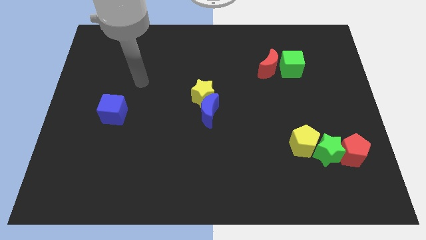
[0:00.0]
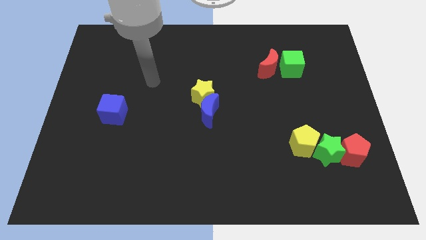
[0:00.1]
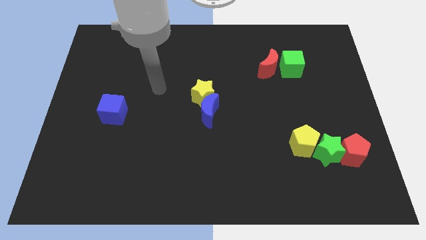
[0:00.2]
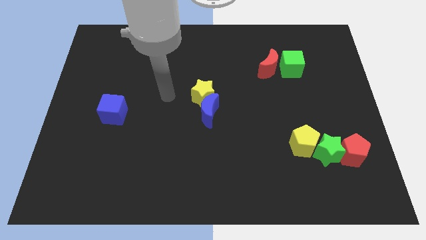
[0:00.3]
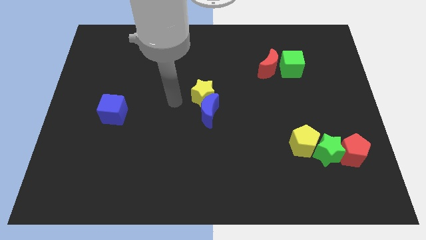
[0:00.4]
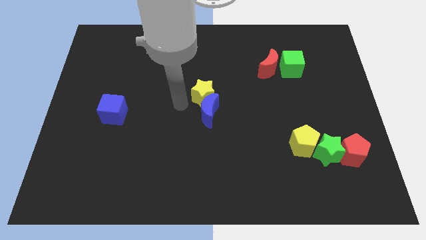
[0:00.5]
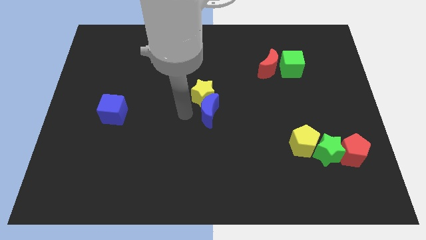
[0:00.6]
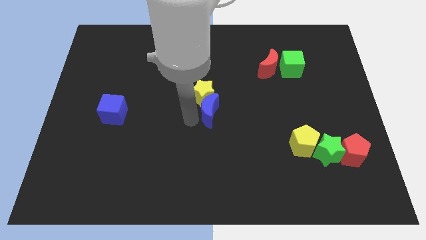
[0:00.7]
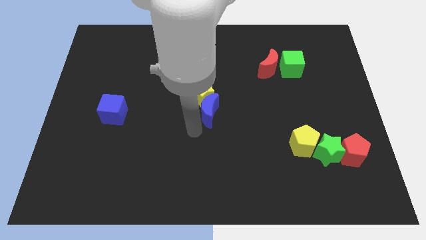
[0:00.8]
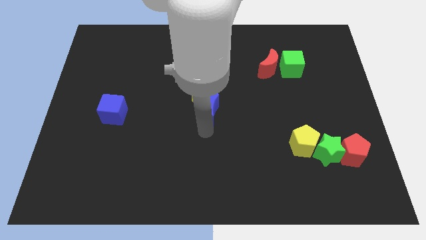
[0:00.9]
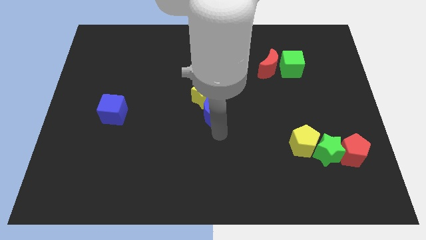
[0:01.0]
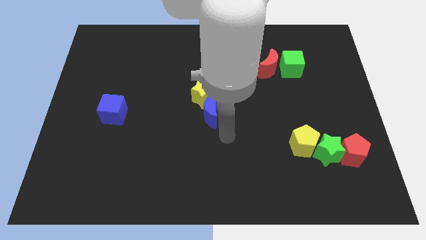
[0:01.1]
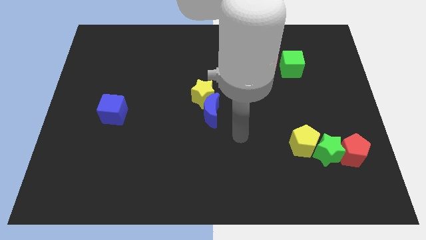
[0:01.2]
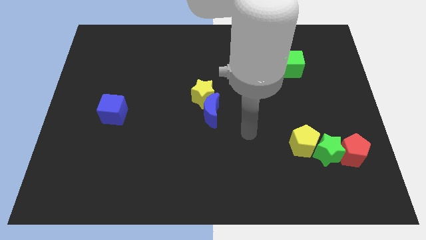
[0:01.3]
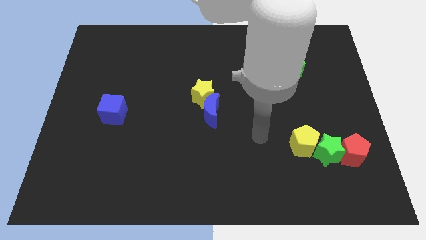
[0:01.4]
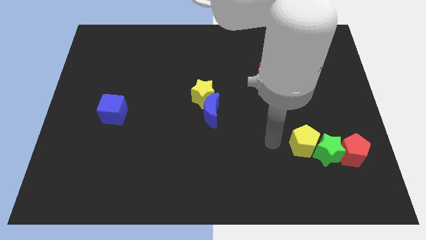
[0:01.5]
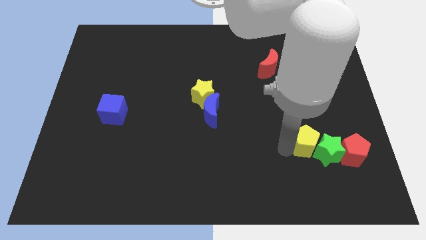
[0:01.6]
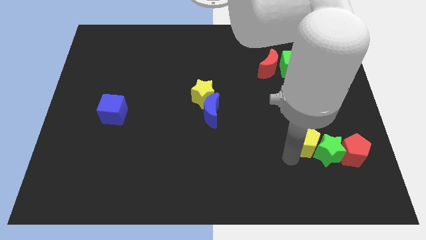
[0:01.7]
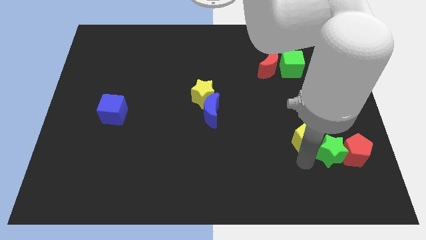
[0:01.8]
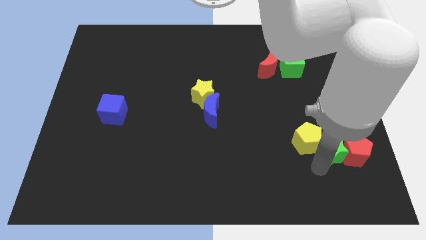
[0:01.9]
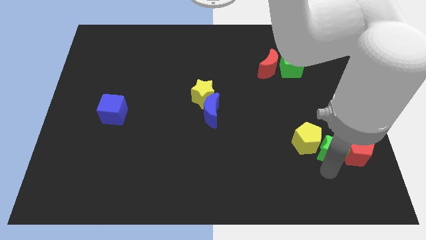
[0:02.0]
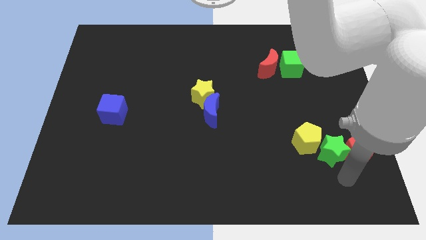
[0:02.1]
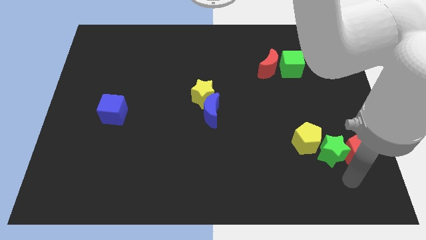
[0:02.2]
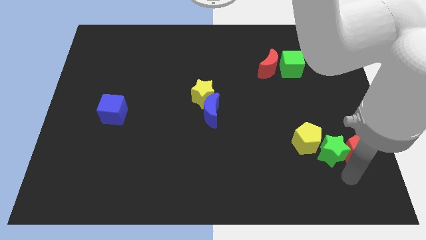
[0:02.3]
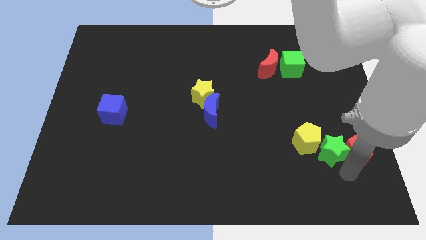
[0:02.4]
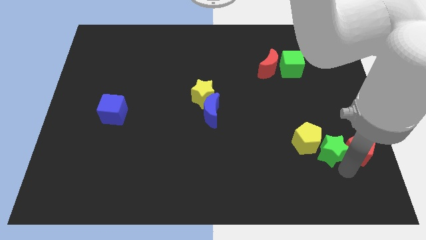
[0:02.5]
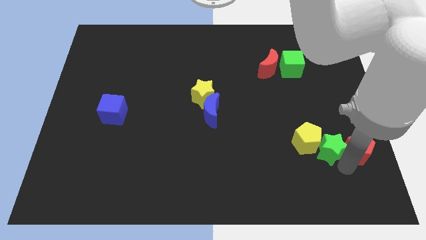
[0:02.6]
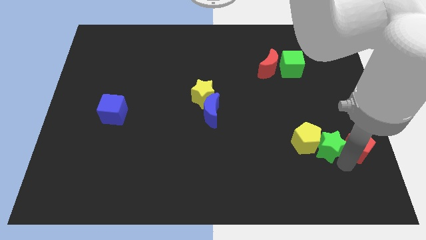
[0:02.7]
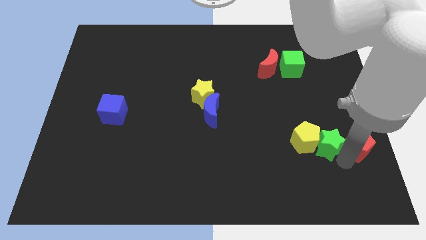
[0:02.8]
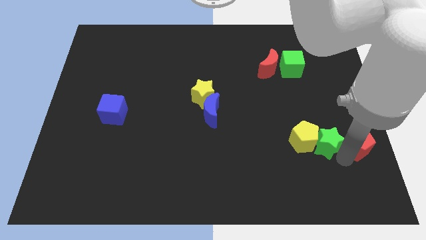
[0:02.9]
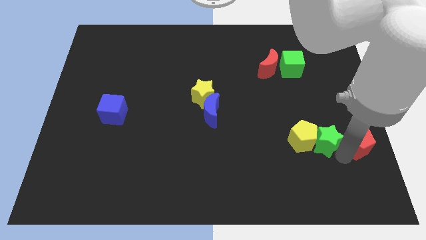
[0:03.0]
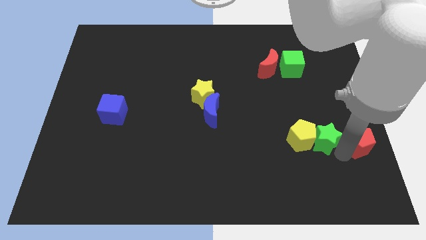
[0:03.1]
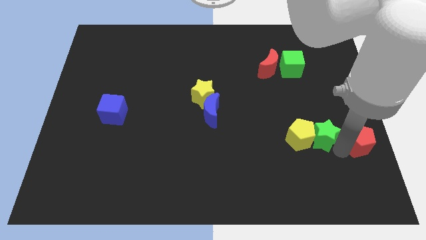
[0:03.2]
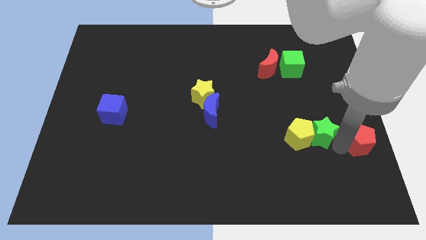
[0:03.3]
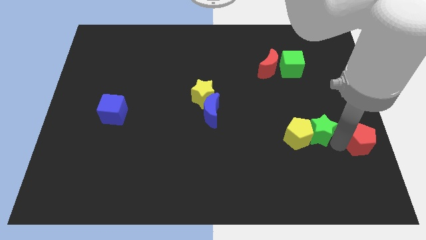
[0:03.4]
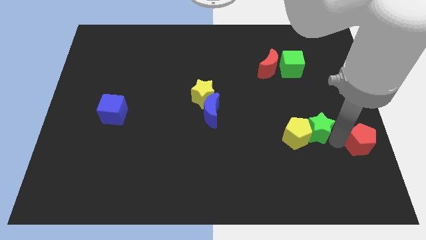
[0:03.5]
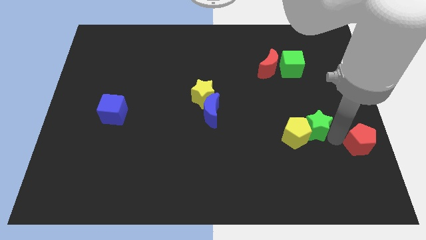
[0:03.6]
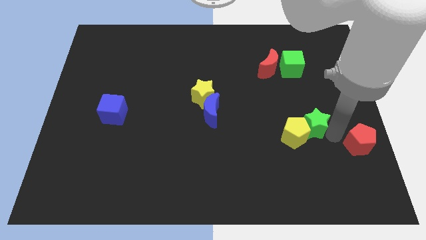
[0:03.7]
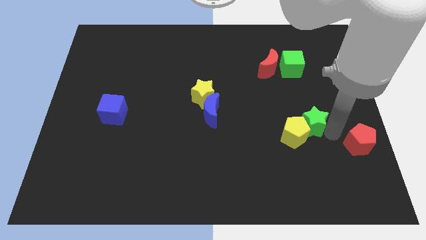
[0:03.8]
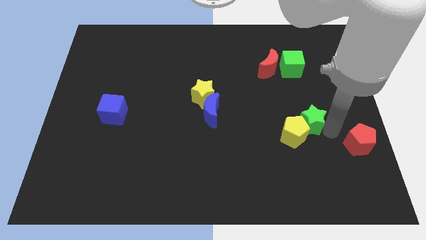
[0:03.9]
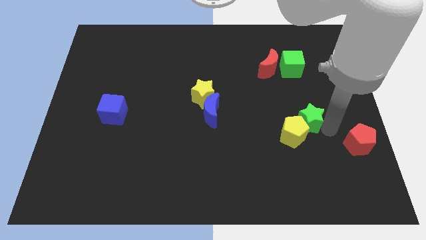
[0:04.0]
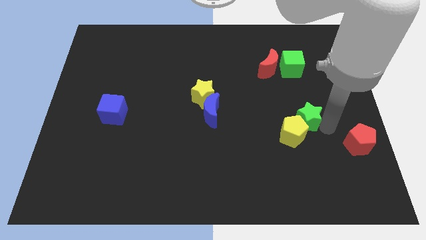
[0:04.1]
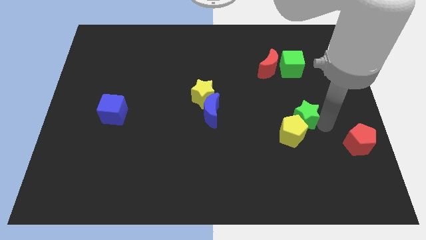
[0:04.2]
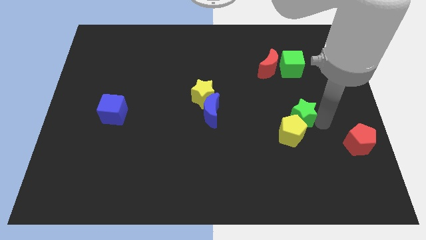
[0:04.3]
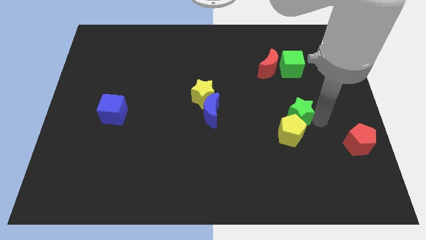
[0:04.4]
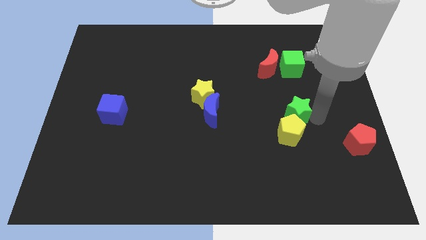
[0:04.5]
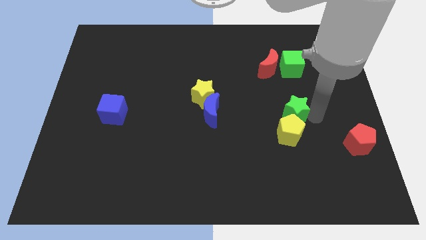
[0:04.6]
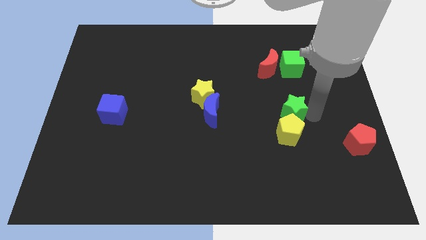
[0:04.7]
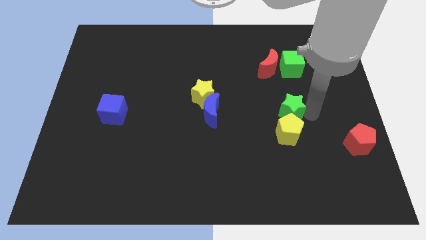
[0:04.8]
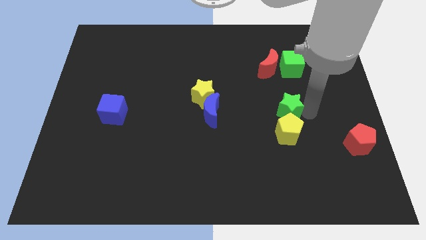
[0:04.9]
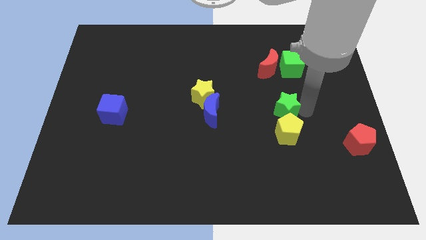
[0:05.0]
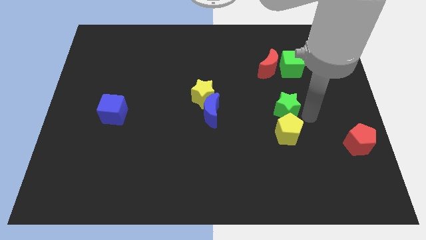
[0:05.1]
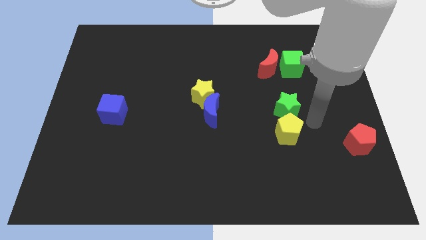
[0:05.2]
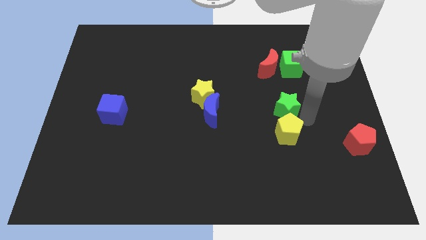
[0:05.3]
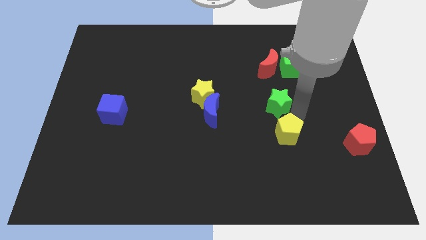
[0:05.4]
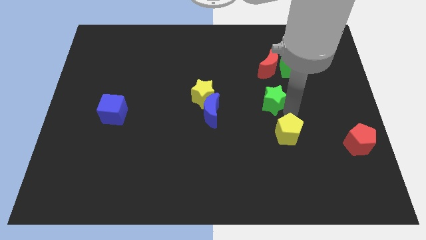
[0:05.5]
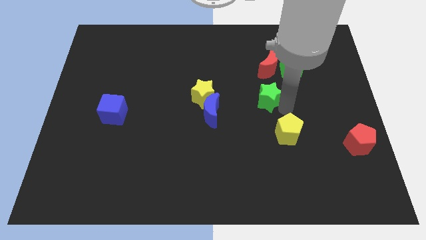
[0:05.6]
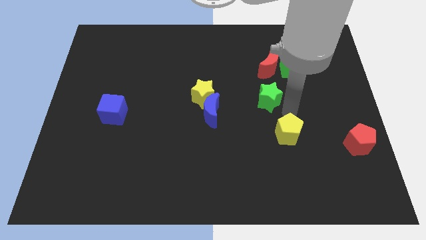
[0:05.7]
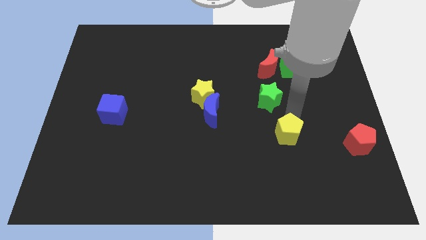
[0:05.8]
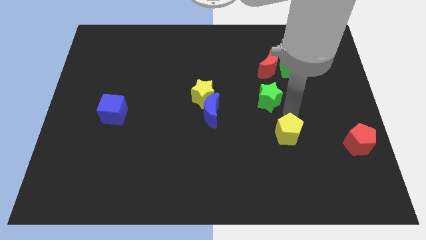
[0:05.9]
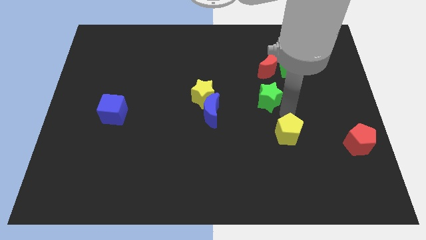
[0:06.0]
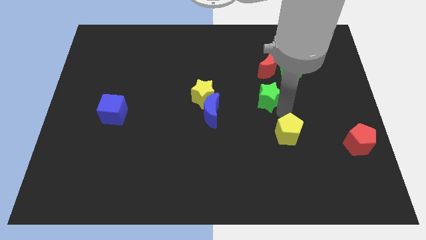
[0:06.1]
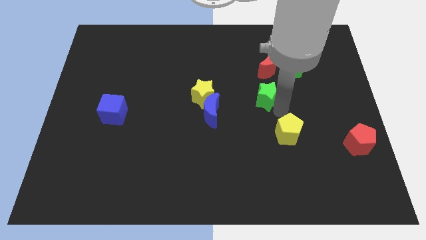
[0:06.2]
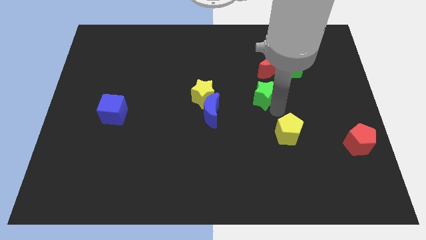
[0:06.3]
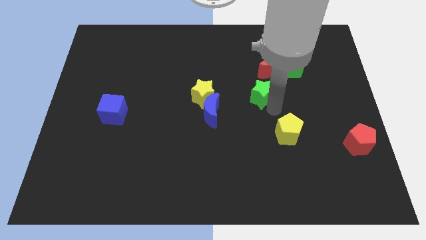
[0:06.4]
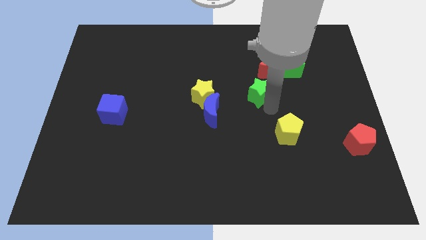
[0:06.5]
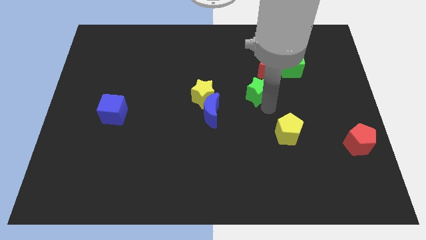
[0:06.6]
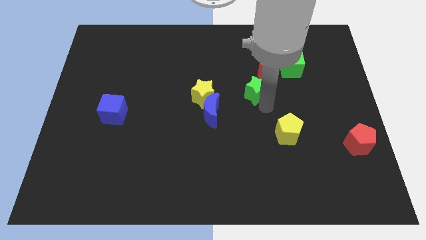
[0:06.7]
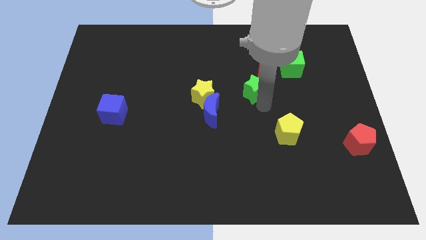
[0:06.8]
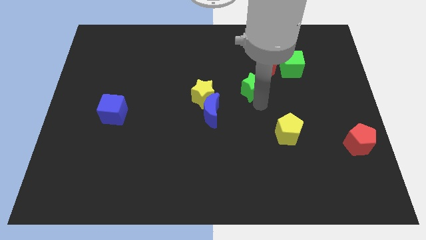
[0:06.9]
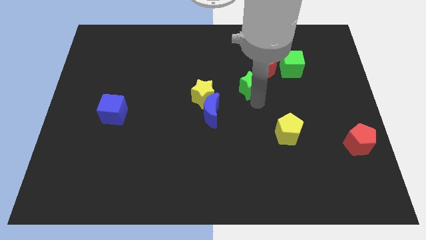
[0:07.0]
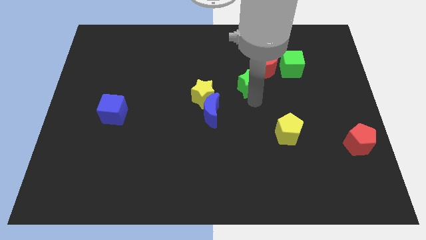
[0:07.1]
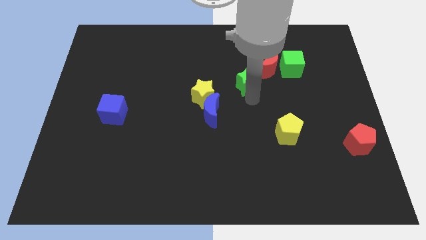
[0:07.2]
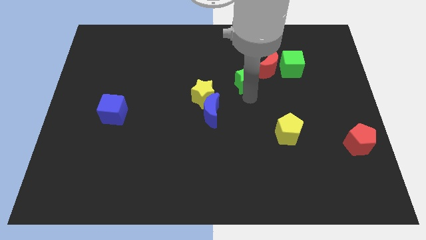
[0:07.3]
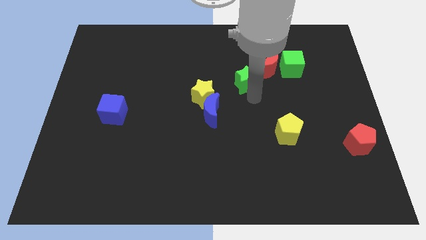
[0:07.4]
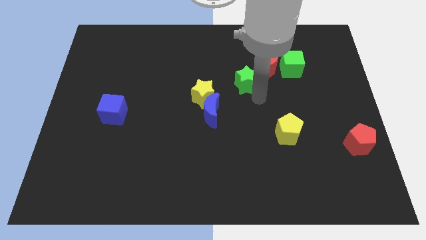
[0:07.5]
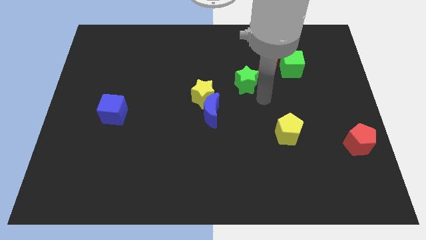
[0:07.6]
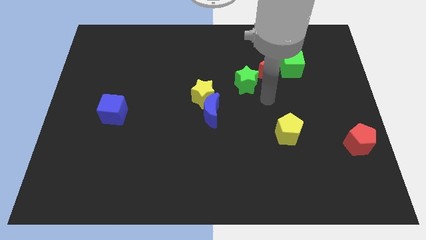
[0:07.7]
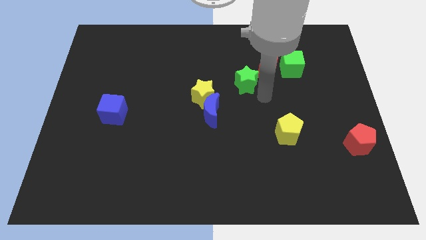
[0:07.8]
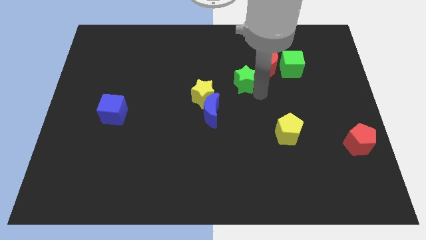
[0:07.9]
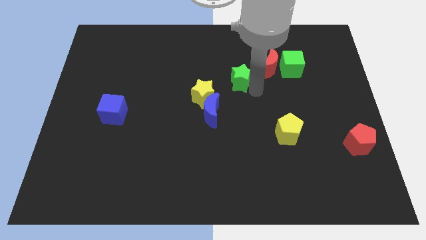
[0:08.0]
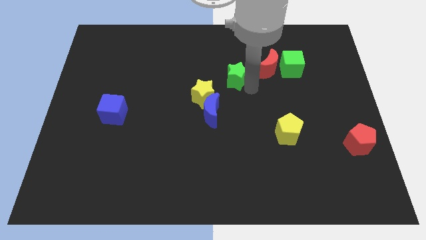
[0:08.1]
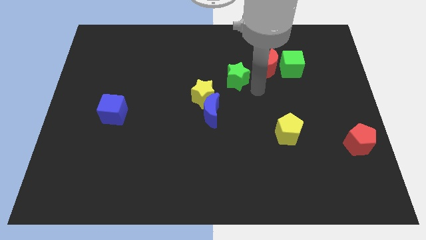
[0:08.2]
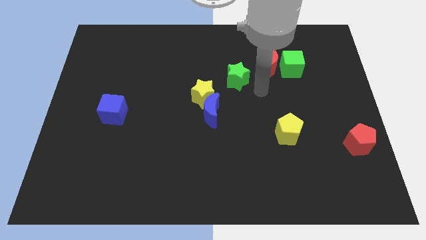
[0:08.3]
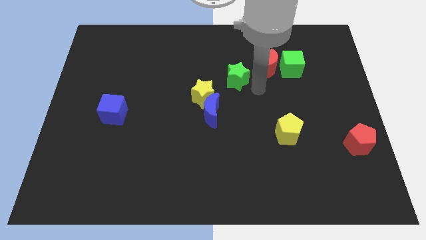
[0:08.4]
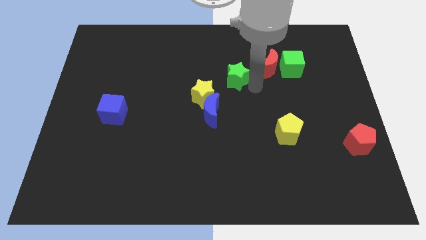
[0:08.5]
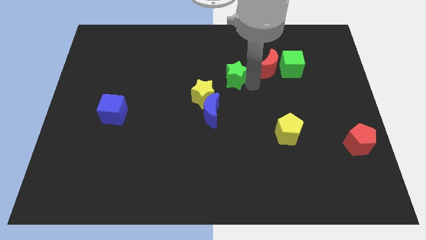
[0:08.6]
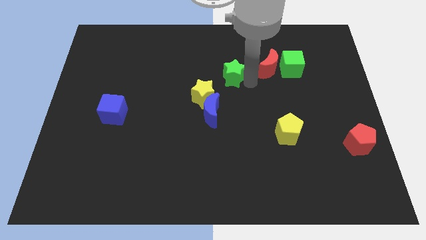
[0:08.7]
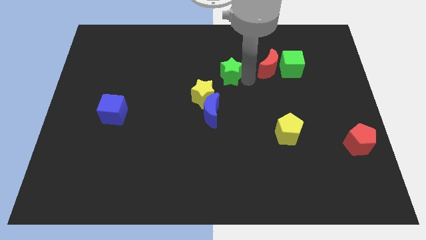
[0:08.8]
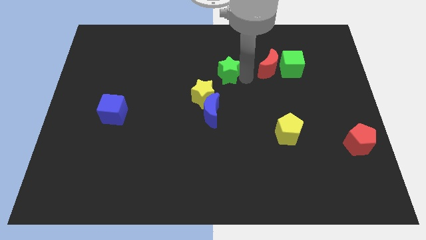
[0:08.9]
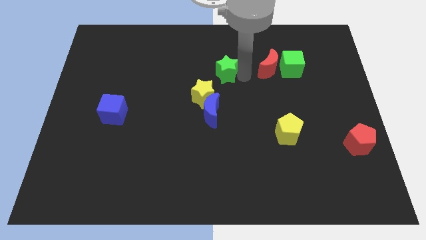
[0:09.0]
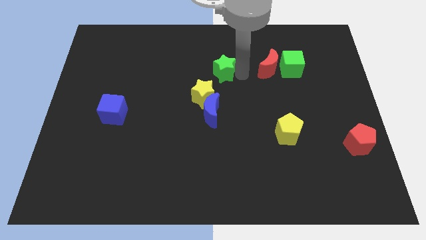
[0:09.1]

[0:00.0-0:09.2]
move the green star to the top side of the yellow star
